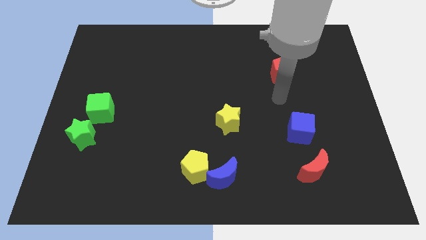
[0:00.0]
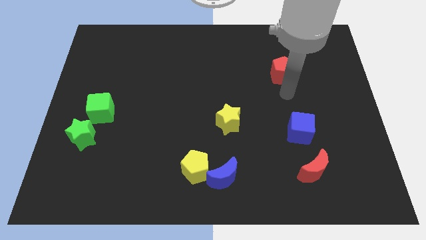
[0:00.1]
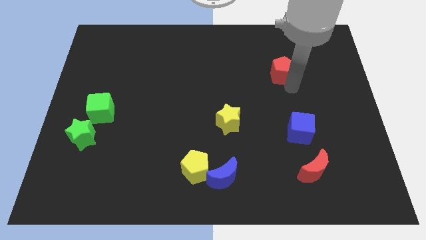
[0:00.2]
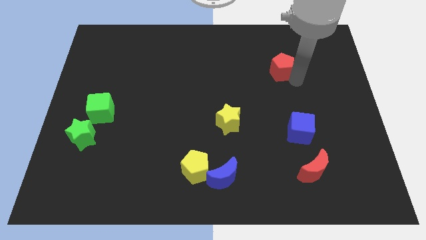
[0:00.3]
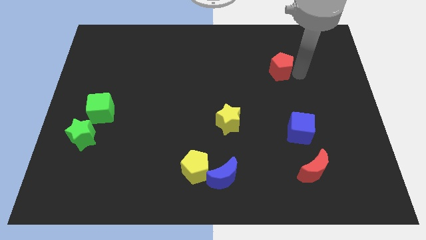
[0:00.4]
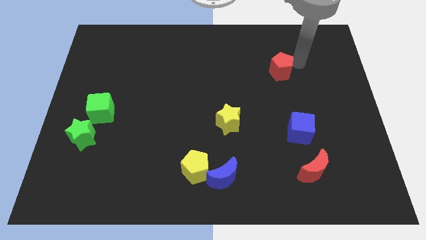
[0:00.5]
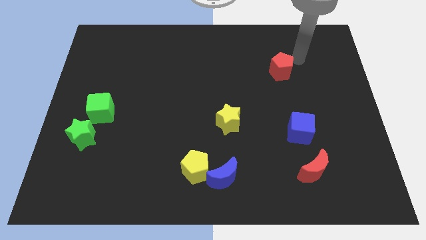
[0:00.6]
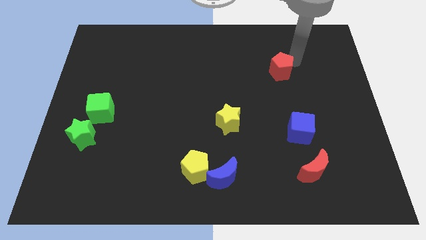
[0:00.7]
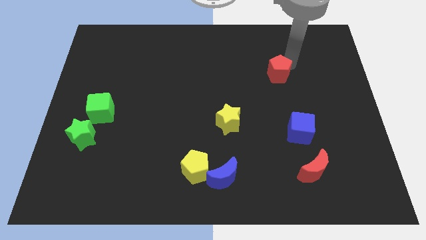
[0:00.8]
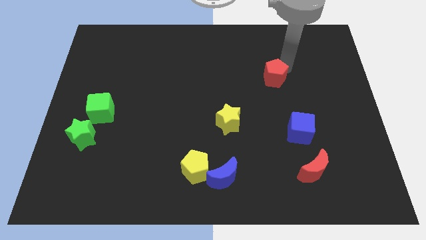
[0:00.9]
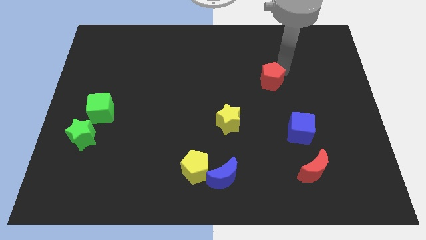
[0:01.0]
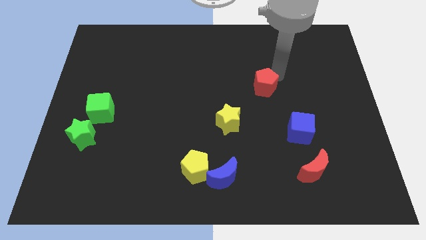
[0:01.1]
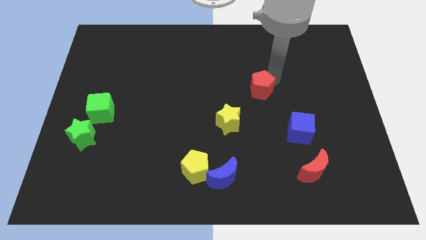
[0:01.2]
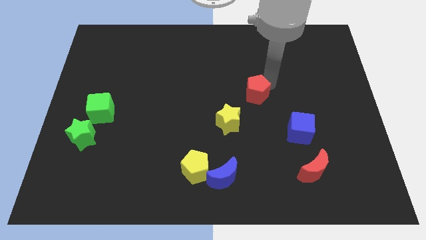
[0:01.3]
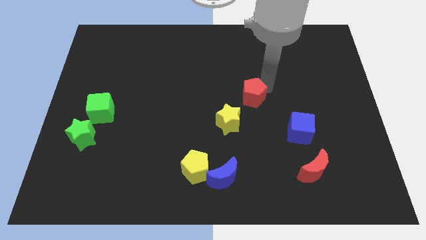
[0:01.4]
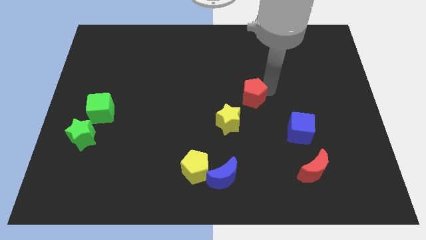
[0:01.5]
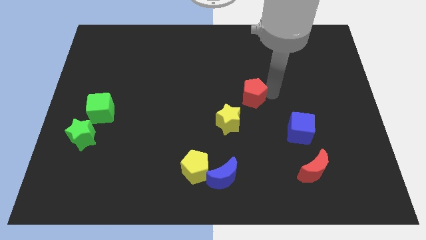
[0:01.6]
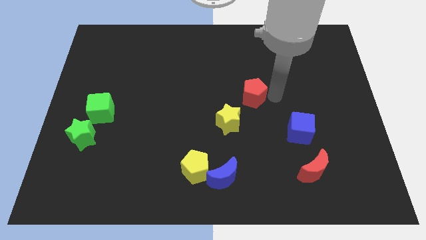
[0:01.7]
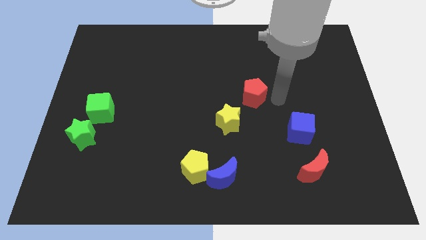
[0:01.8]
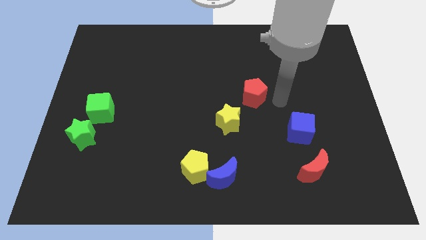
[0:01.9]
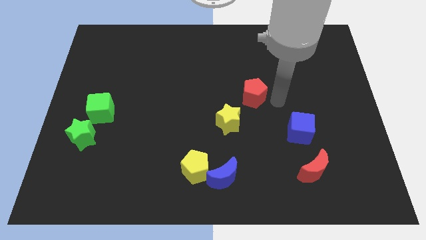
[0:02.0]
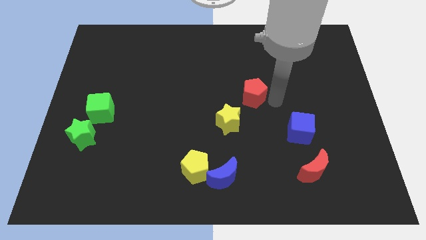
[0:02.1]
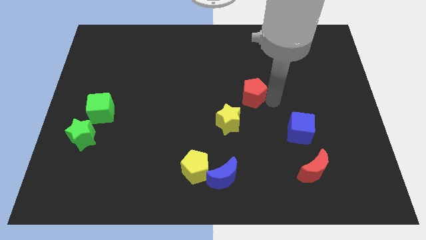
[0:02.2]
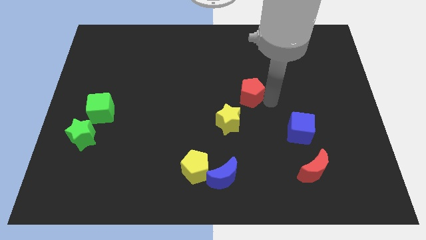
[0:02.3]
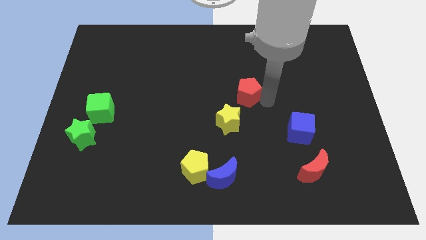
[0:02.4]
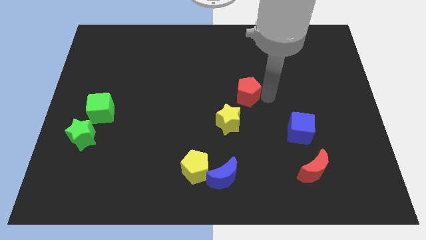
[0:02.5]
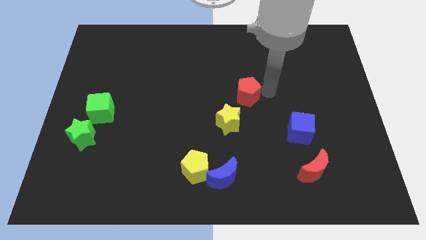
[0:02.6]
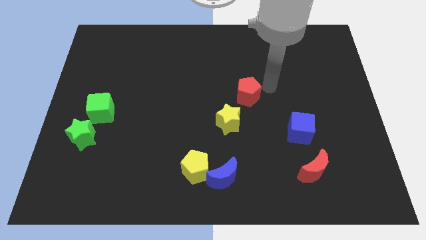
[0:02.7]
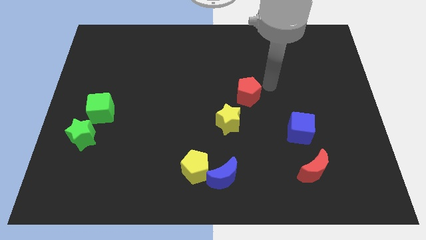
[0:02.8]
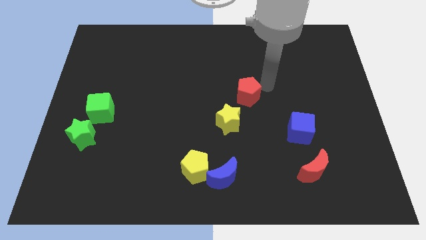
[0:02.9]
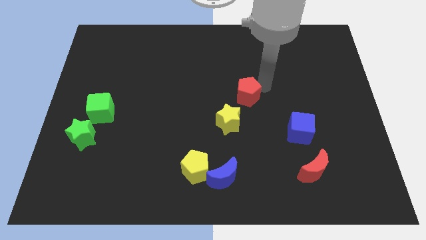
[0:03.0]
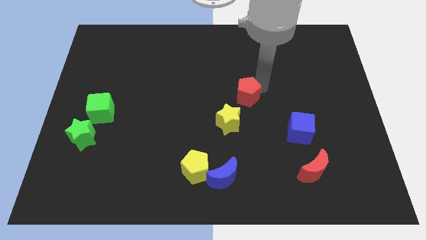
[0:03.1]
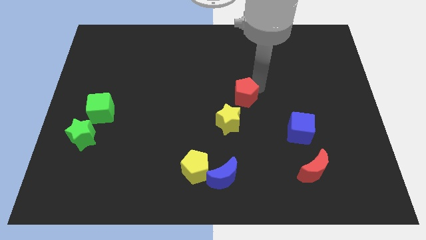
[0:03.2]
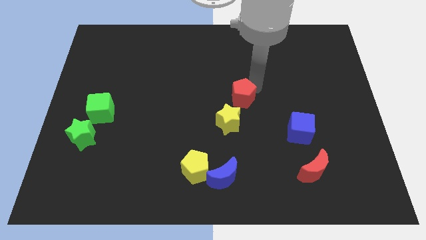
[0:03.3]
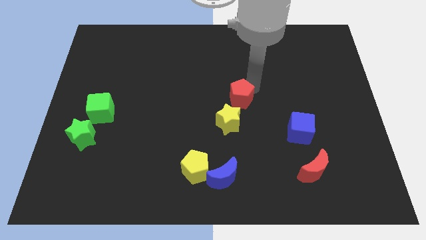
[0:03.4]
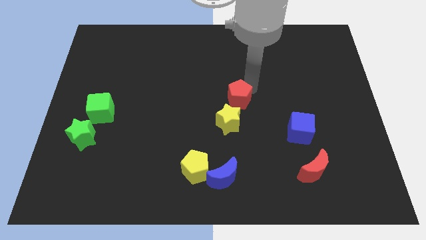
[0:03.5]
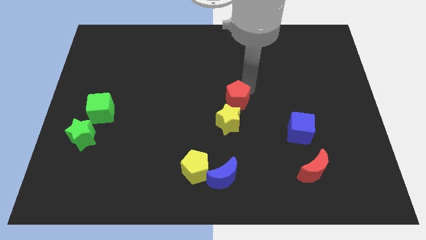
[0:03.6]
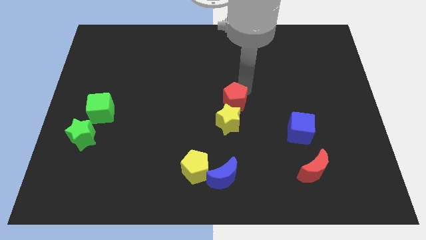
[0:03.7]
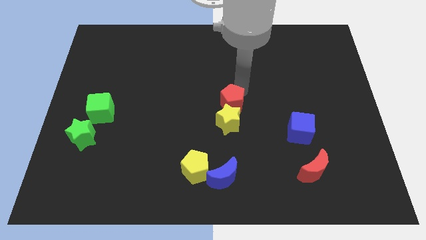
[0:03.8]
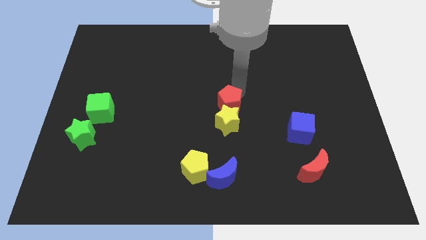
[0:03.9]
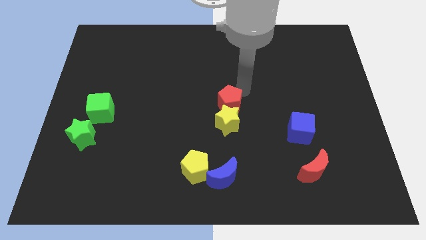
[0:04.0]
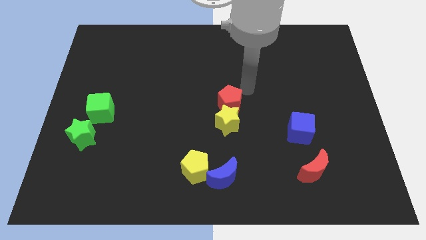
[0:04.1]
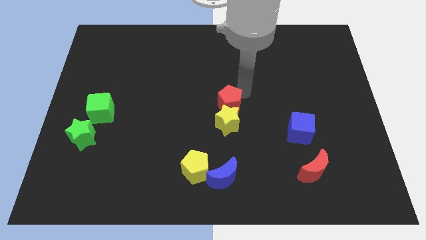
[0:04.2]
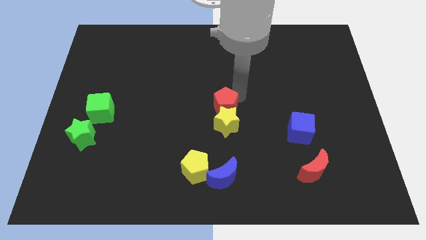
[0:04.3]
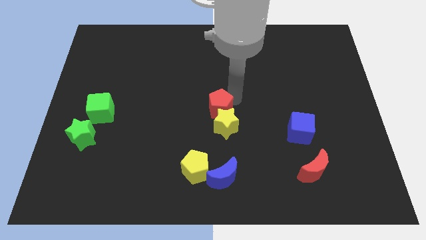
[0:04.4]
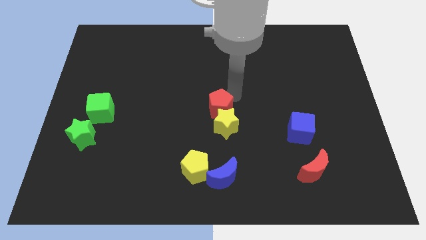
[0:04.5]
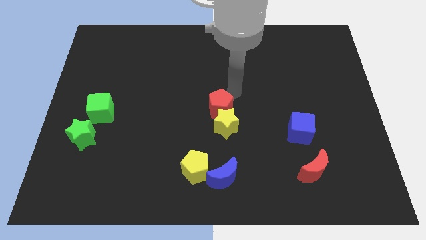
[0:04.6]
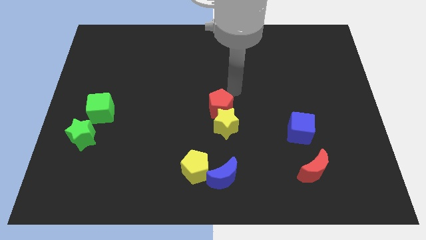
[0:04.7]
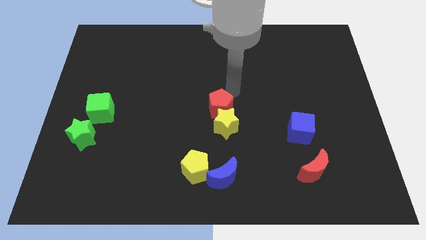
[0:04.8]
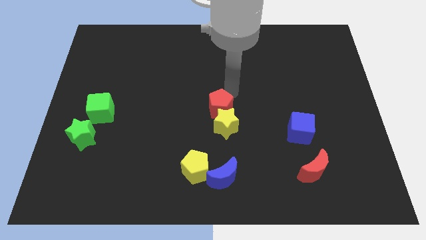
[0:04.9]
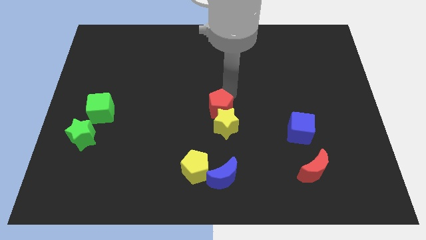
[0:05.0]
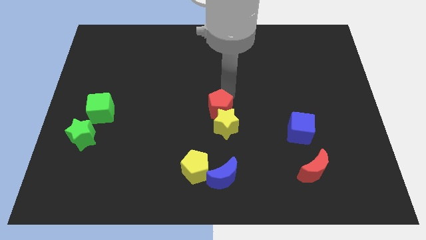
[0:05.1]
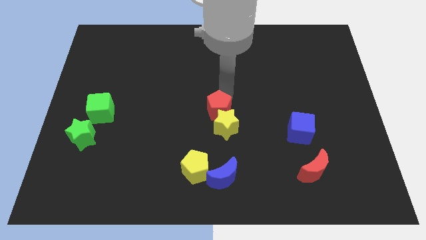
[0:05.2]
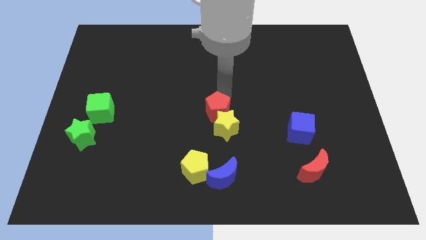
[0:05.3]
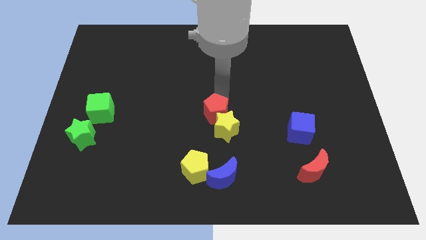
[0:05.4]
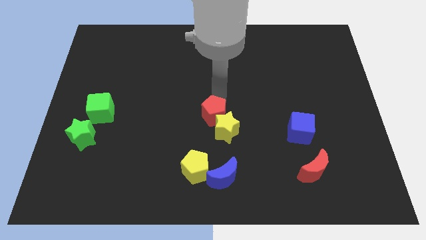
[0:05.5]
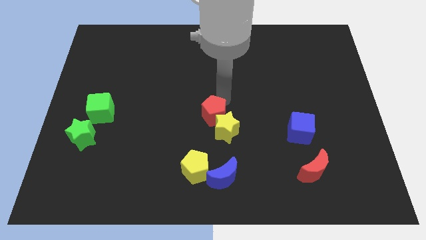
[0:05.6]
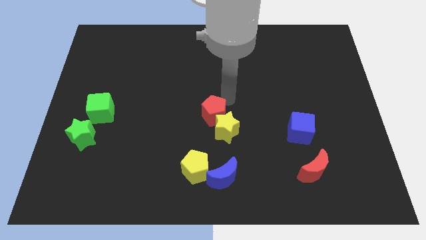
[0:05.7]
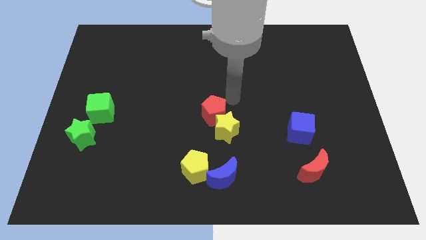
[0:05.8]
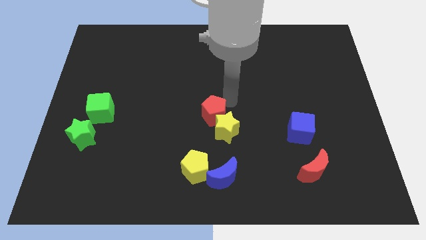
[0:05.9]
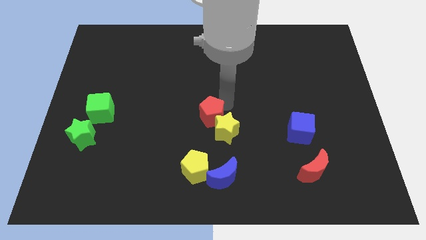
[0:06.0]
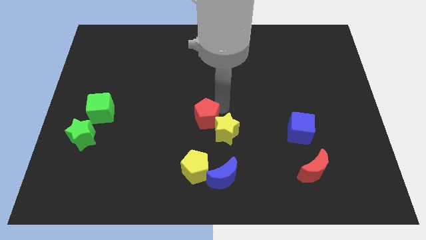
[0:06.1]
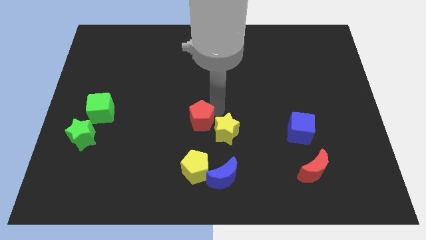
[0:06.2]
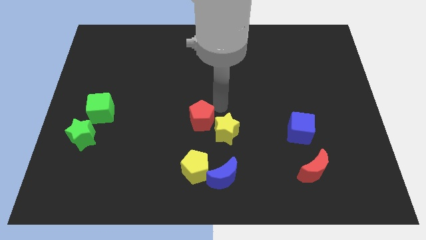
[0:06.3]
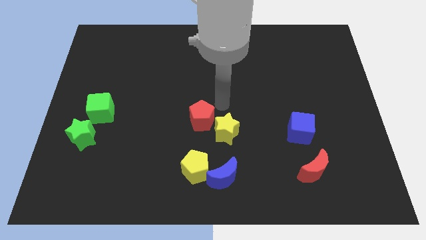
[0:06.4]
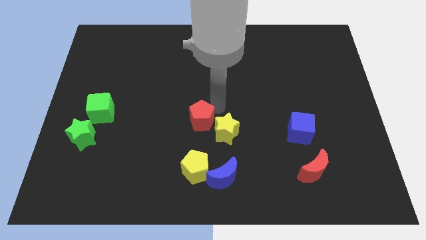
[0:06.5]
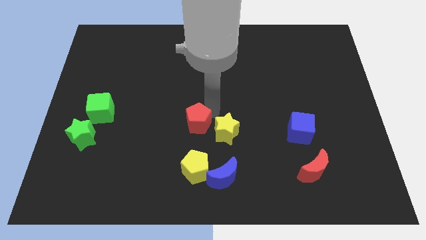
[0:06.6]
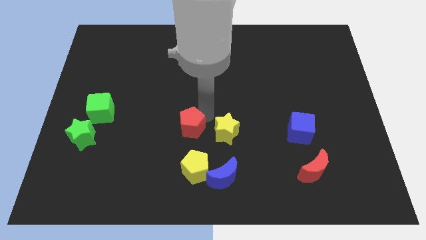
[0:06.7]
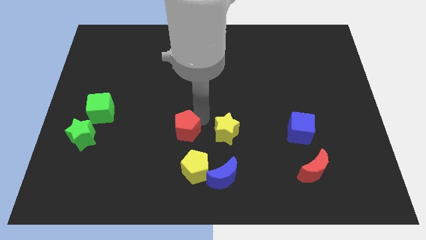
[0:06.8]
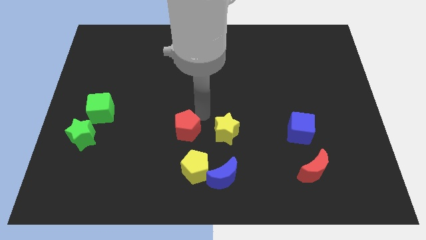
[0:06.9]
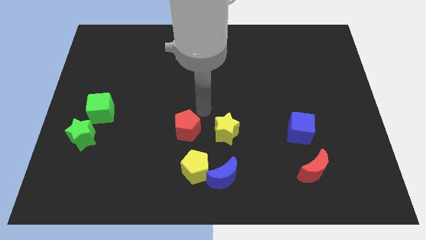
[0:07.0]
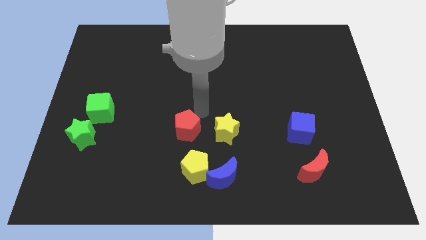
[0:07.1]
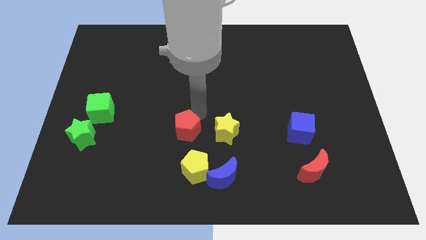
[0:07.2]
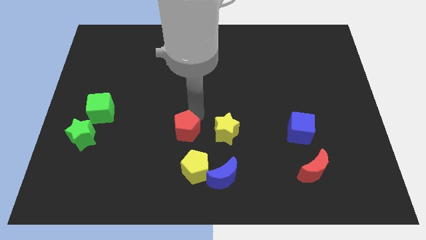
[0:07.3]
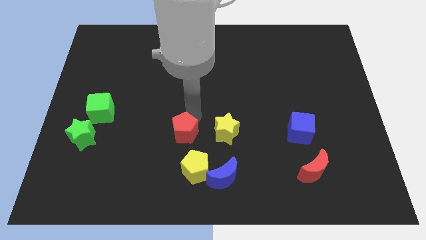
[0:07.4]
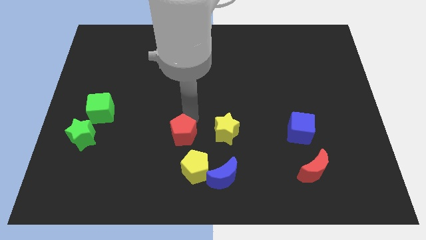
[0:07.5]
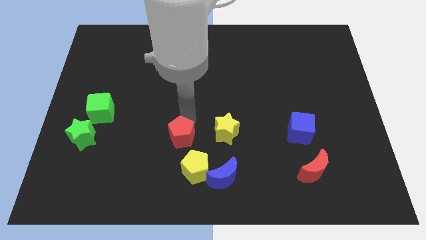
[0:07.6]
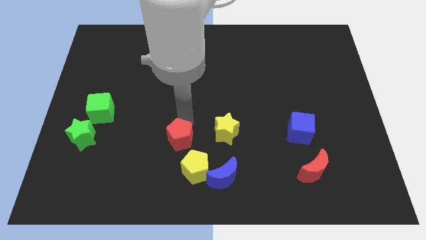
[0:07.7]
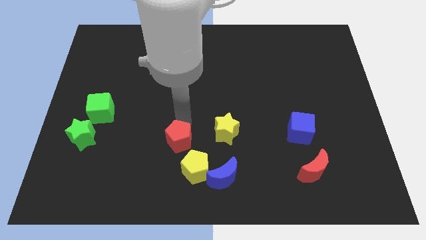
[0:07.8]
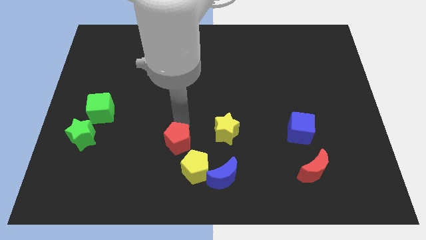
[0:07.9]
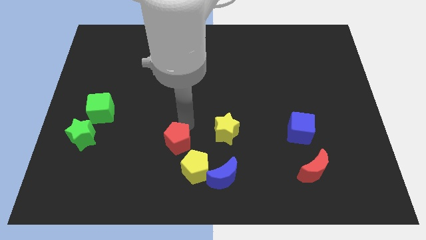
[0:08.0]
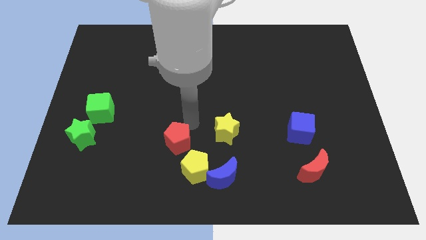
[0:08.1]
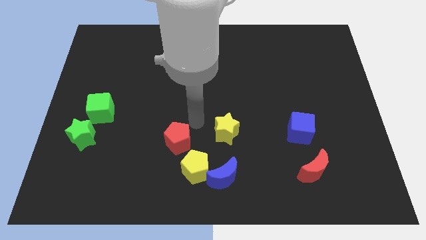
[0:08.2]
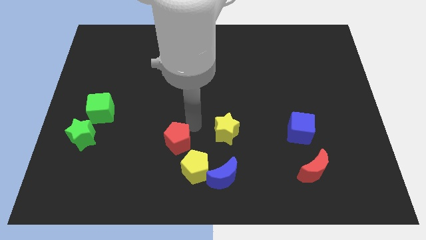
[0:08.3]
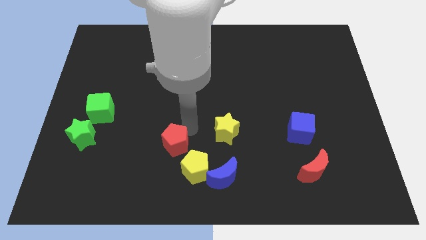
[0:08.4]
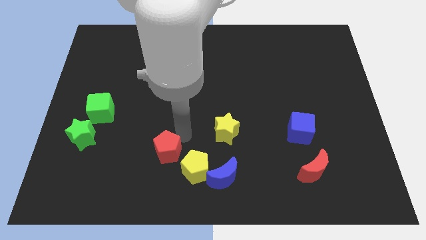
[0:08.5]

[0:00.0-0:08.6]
put the red pentagon left of the yellow pentagon
